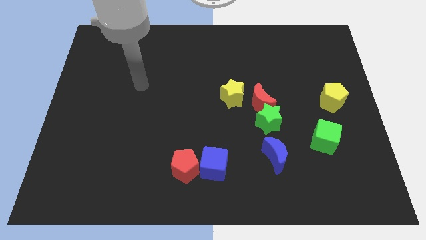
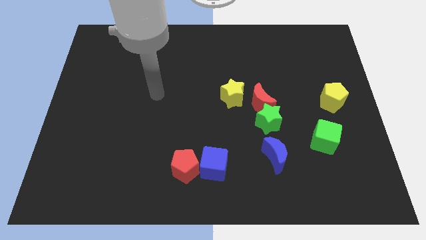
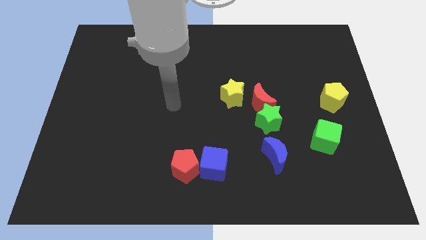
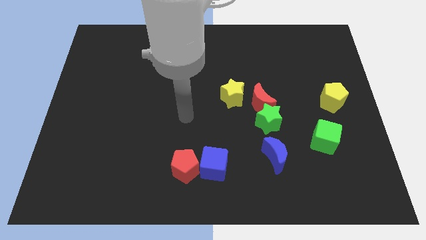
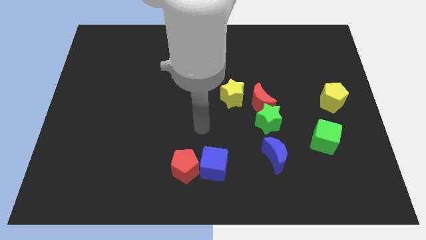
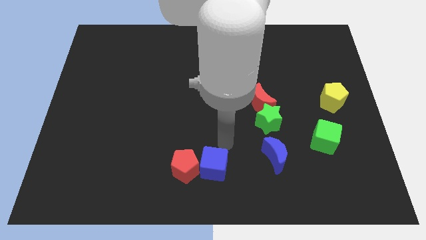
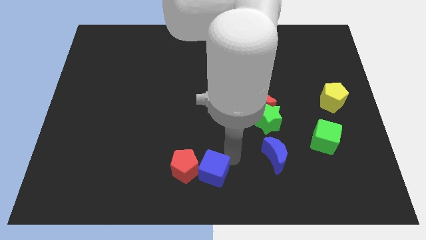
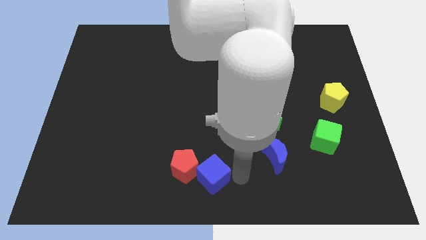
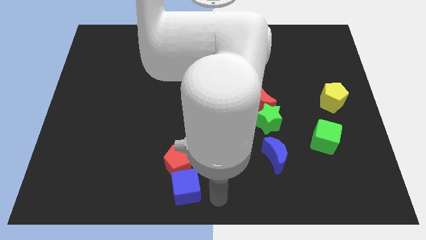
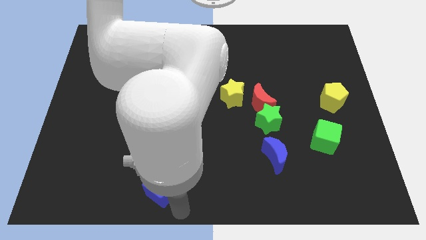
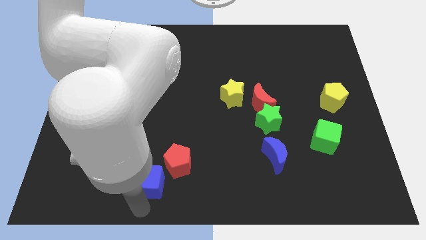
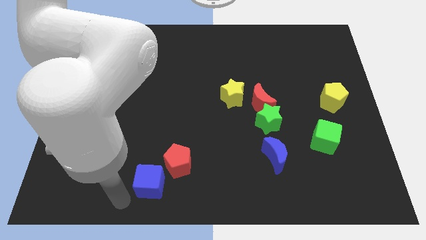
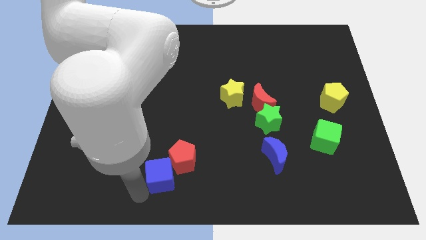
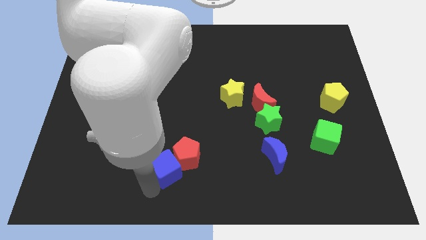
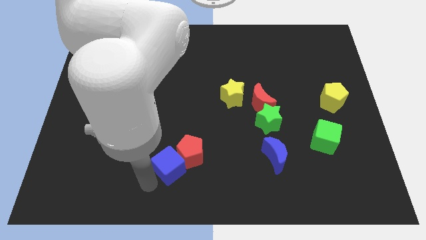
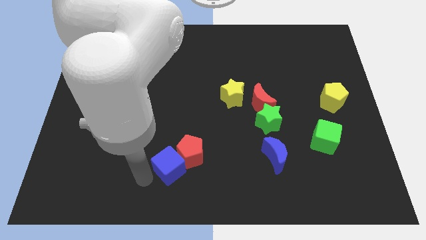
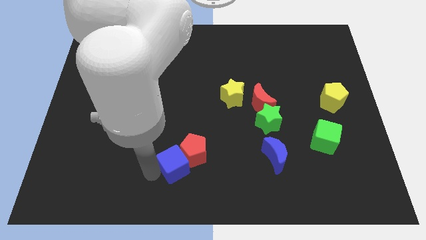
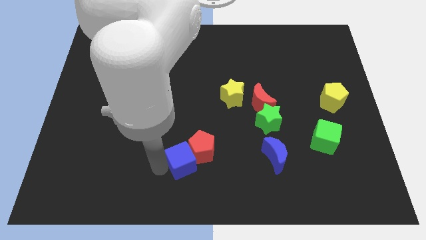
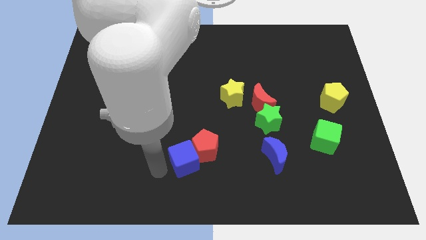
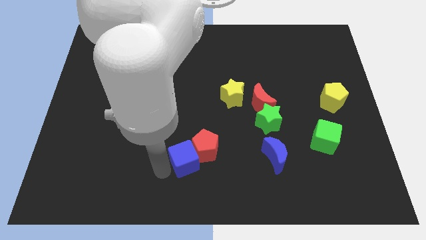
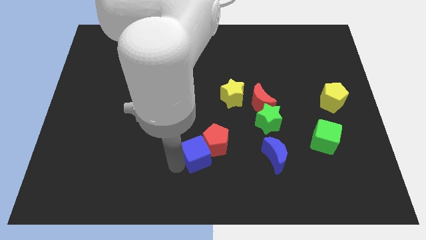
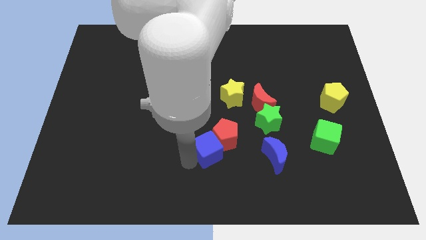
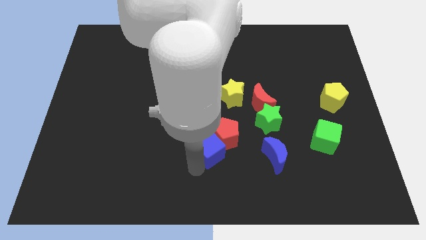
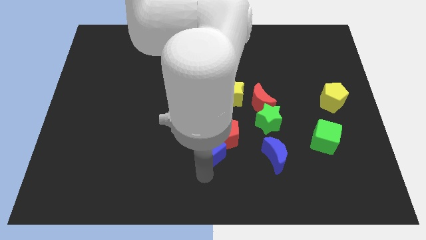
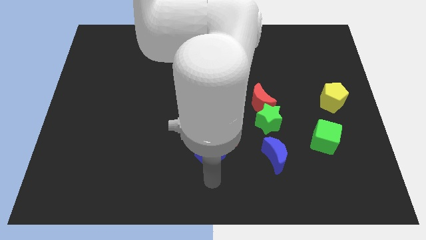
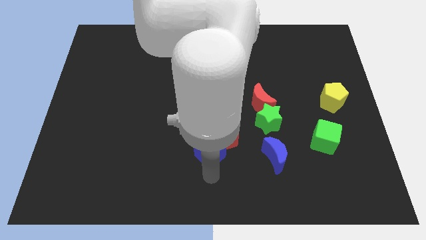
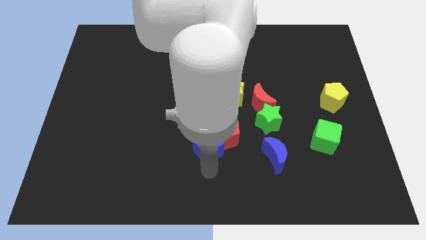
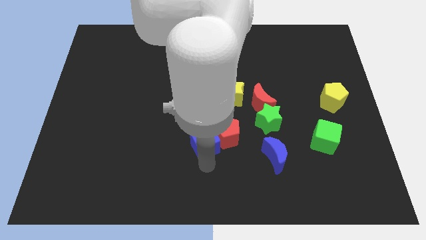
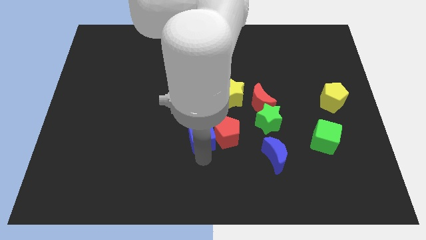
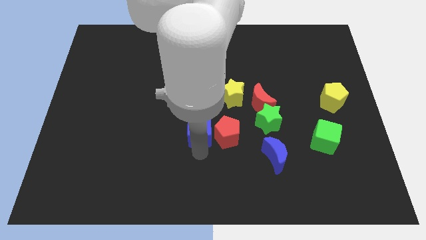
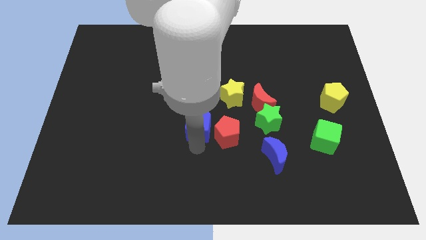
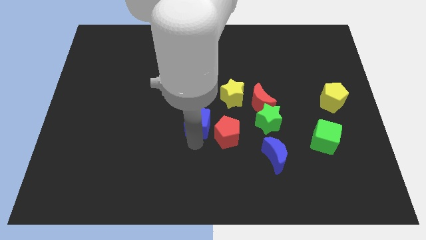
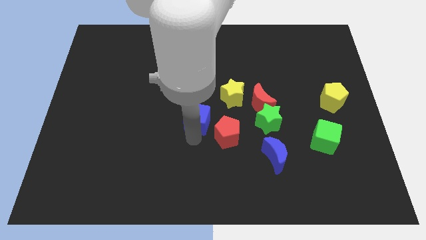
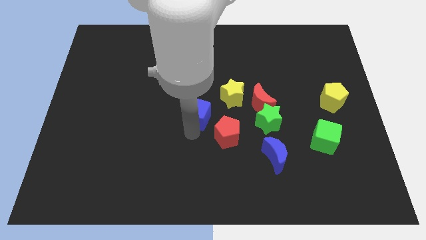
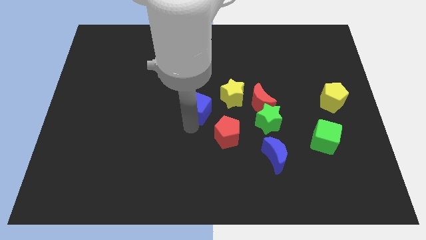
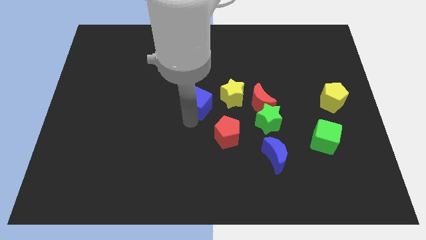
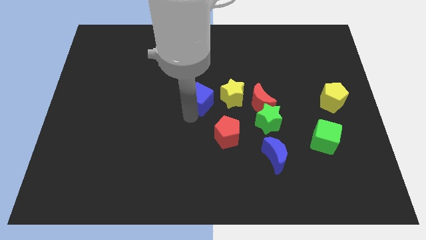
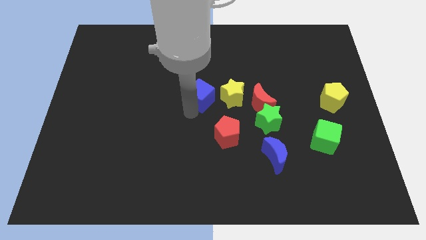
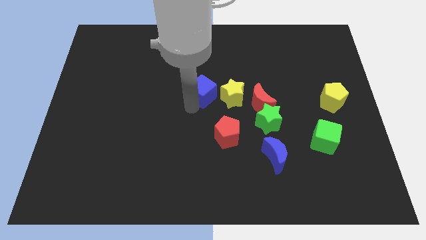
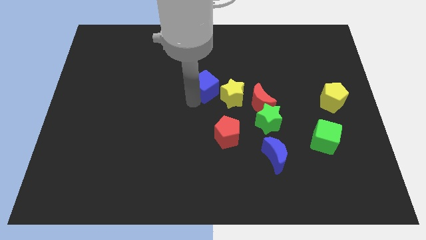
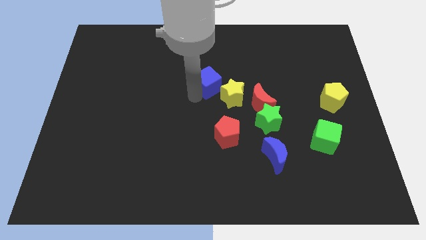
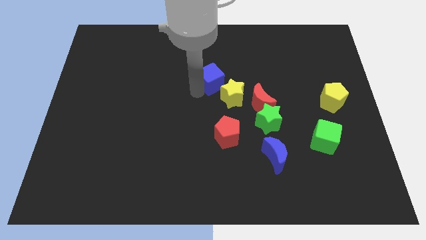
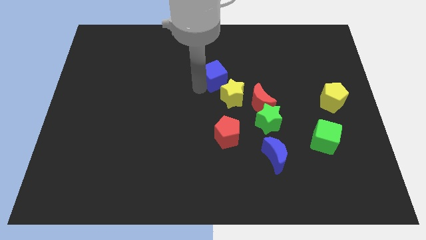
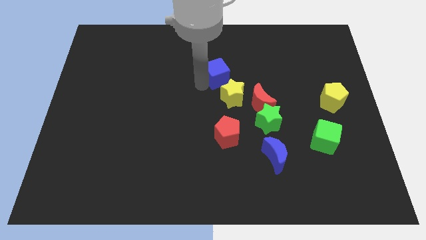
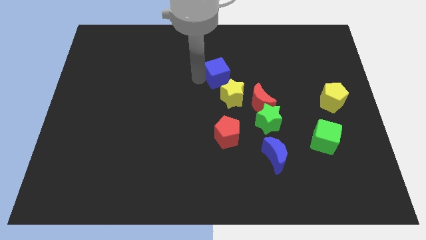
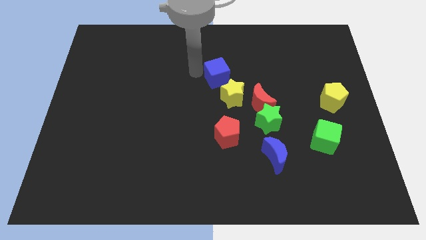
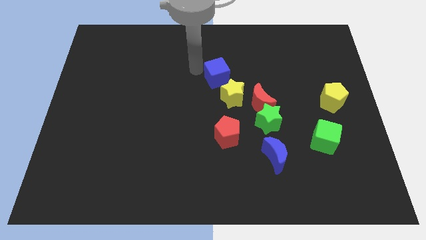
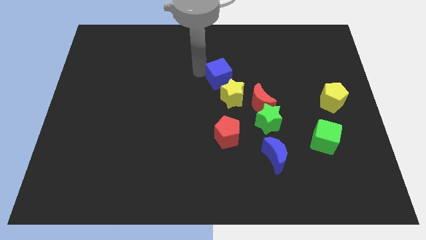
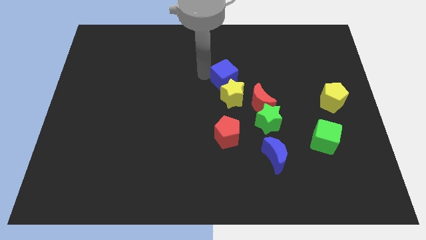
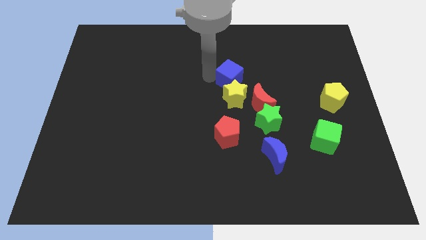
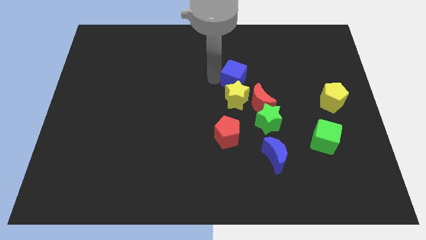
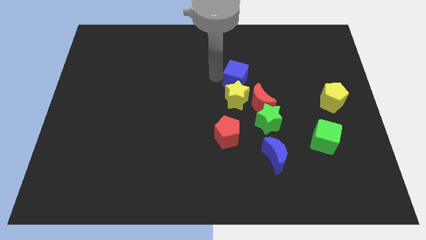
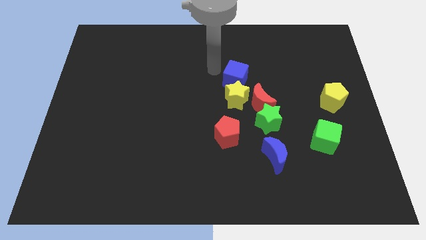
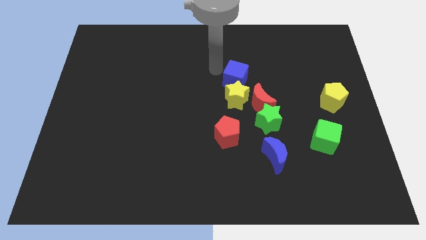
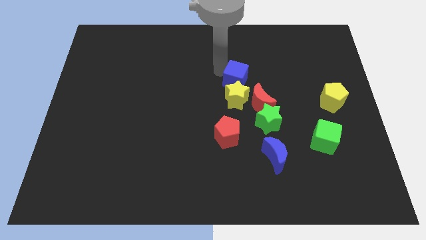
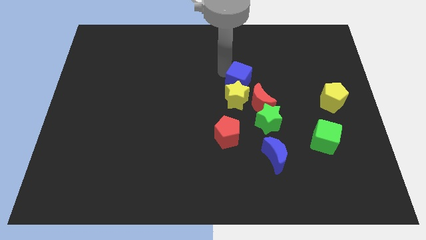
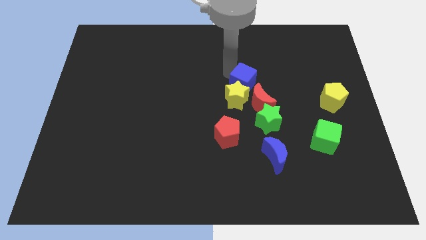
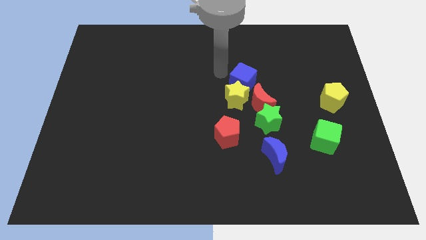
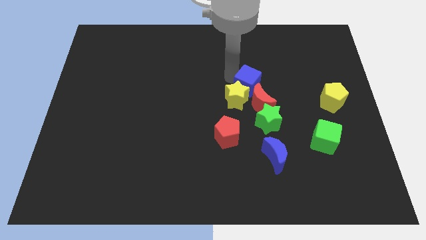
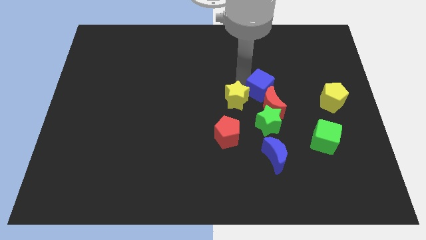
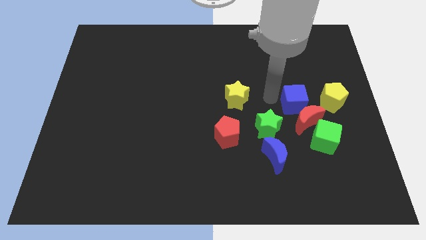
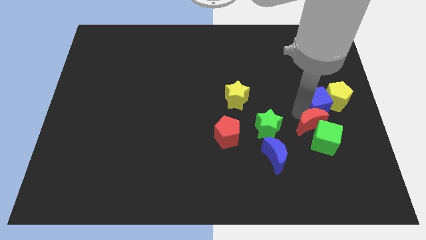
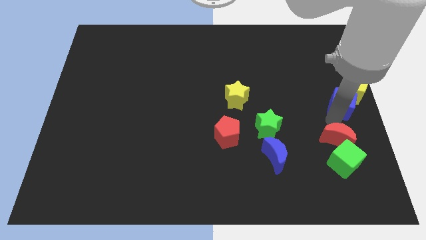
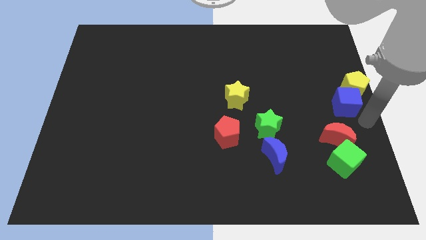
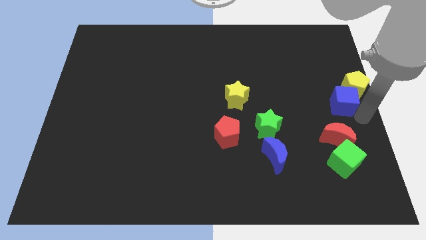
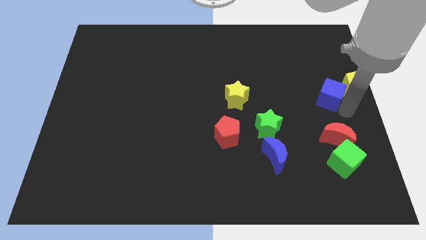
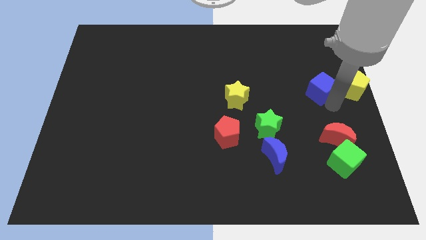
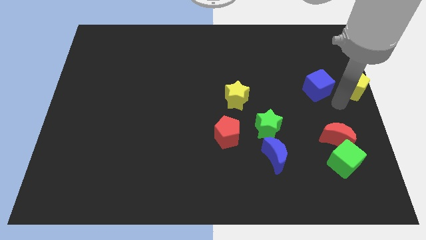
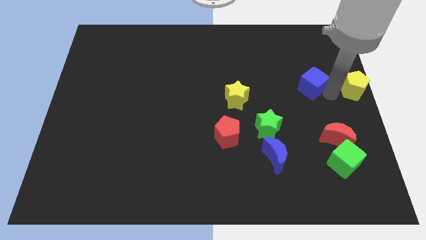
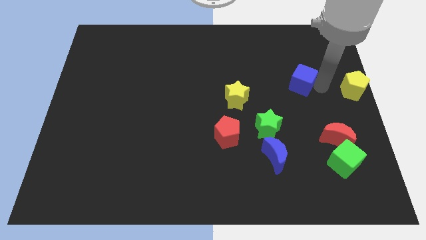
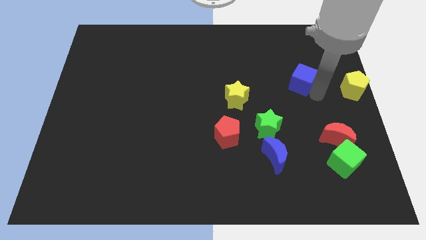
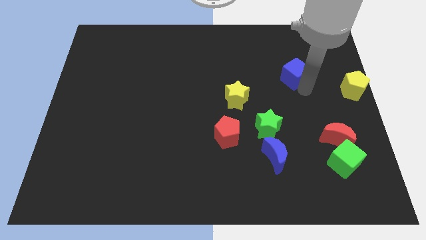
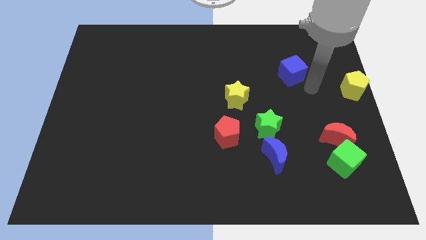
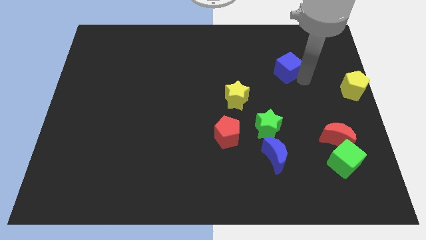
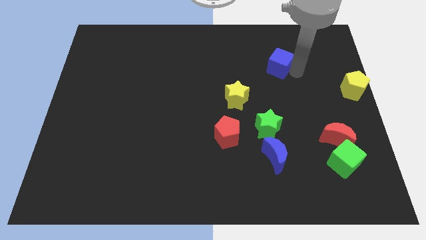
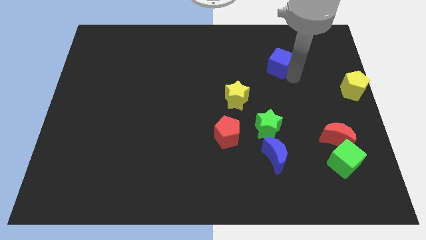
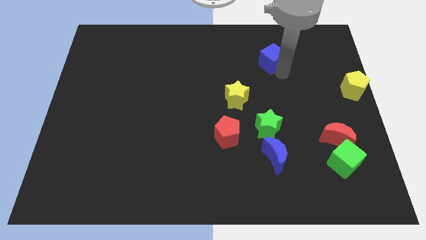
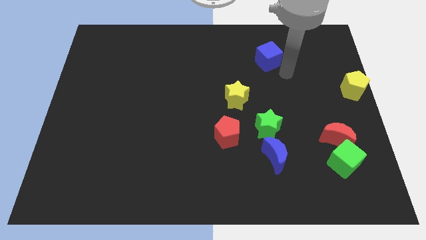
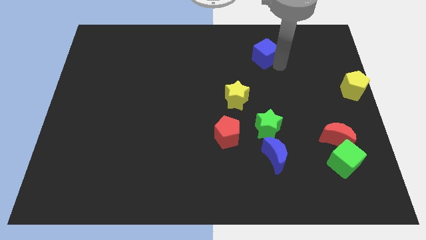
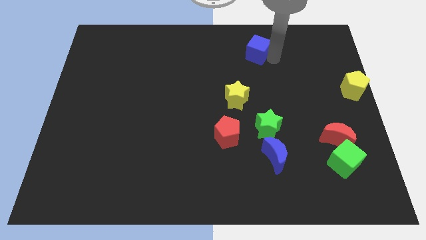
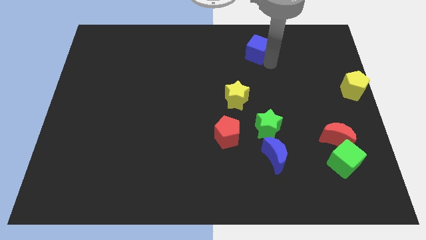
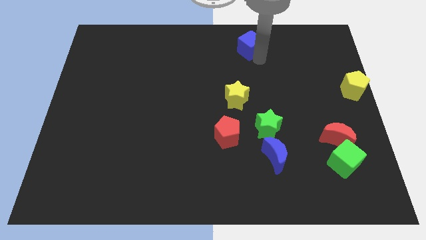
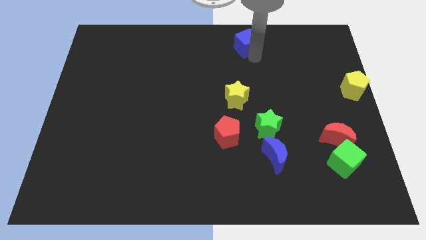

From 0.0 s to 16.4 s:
push the blue cube to the towards your base
